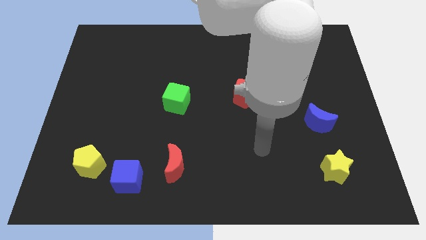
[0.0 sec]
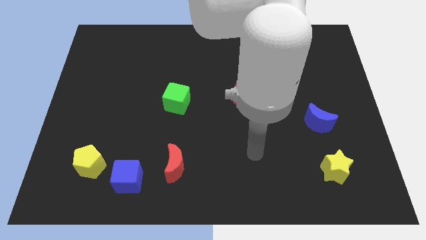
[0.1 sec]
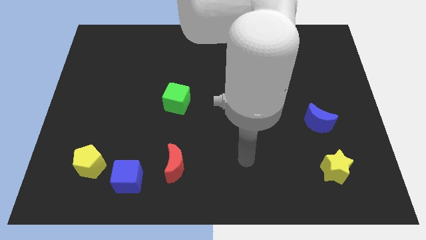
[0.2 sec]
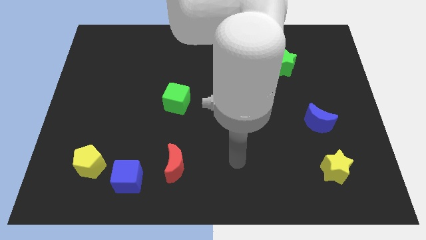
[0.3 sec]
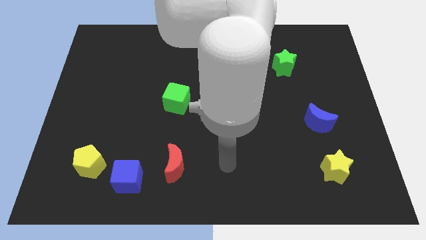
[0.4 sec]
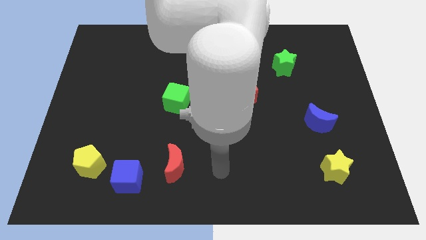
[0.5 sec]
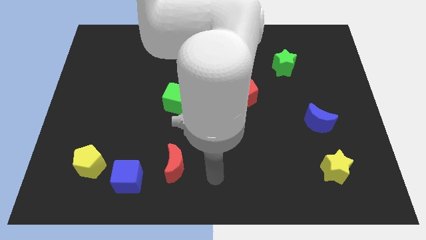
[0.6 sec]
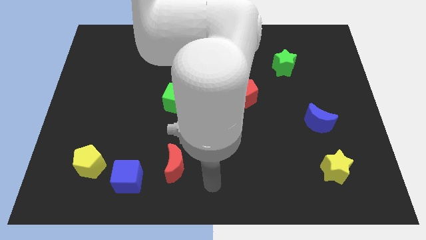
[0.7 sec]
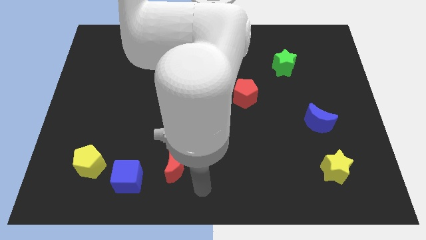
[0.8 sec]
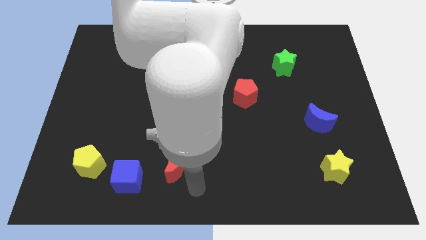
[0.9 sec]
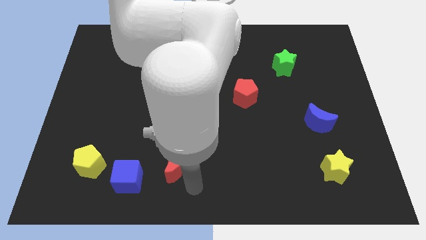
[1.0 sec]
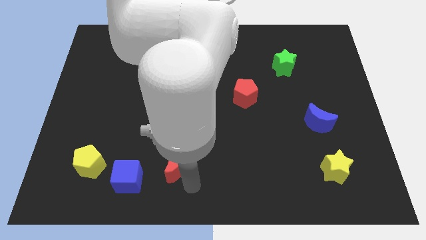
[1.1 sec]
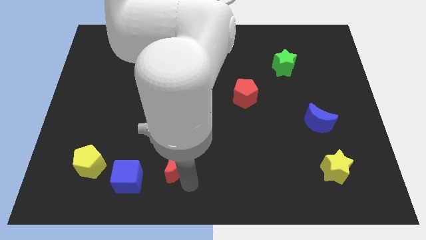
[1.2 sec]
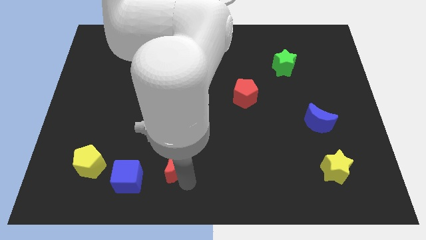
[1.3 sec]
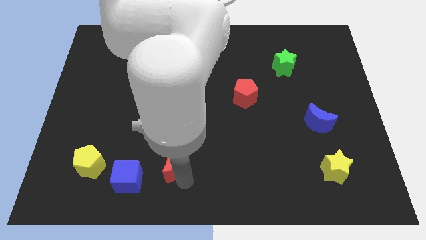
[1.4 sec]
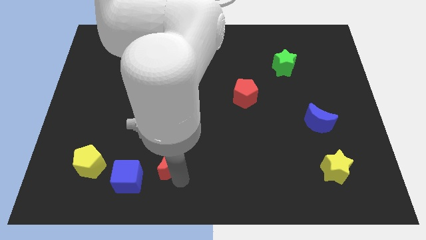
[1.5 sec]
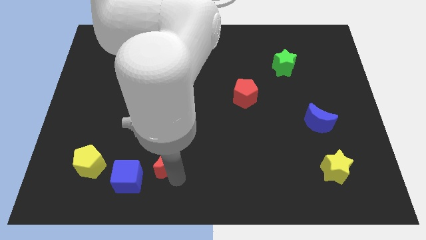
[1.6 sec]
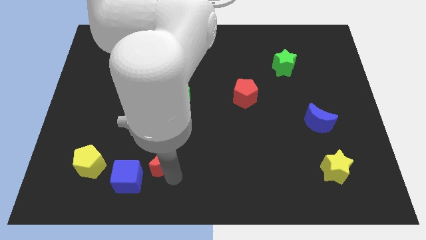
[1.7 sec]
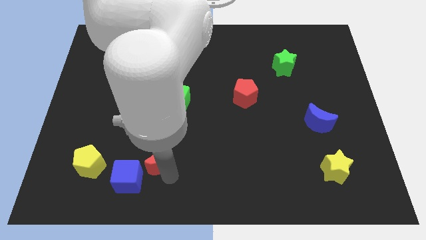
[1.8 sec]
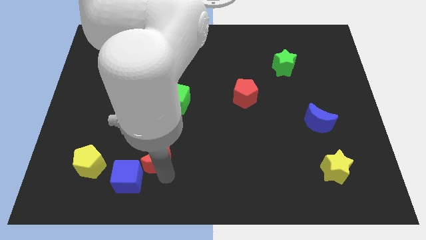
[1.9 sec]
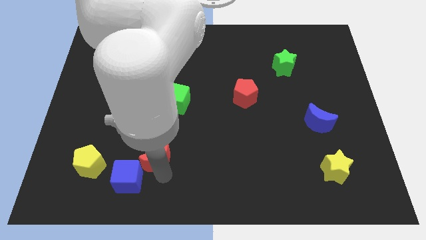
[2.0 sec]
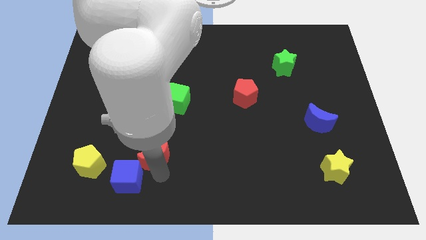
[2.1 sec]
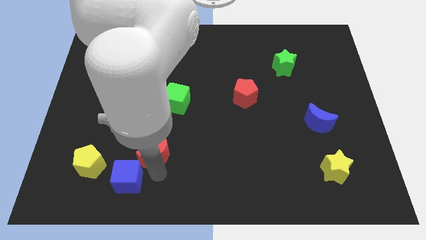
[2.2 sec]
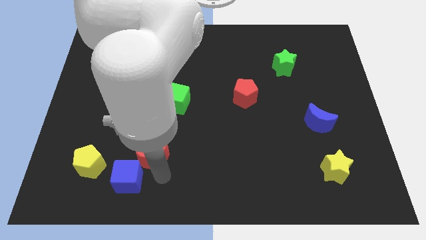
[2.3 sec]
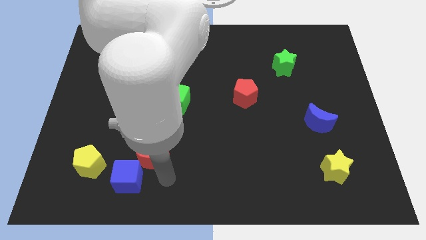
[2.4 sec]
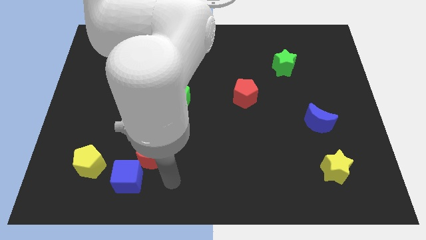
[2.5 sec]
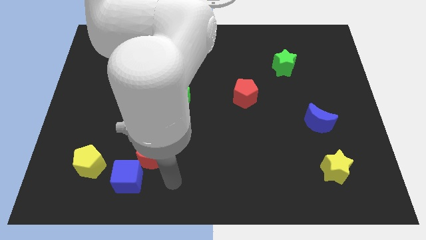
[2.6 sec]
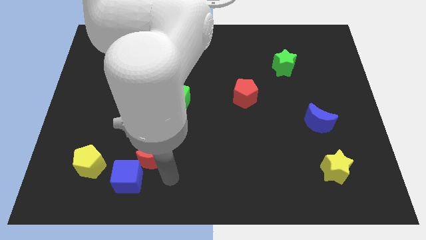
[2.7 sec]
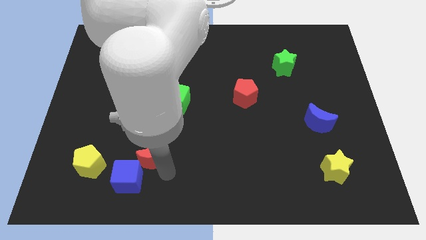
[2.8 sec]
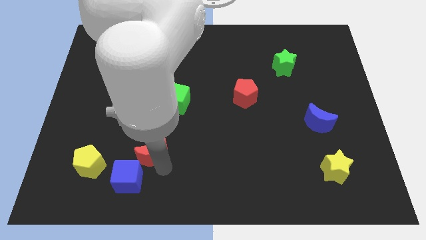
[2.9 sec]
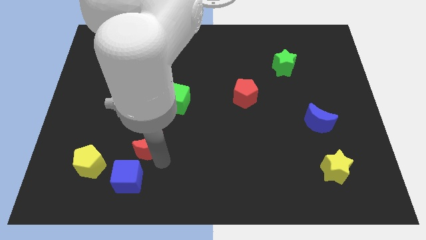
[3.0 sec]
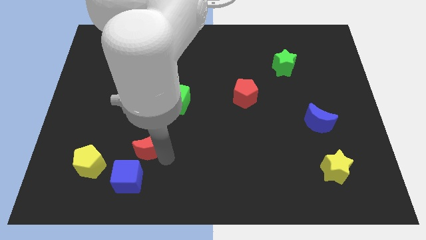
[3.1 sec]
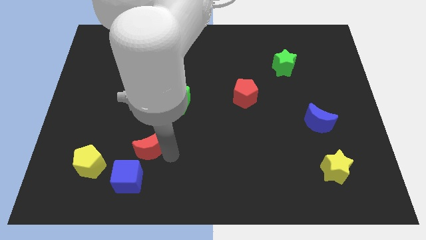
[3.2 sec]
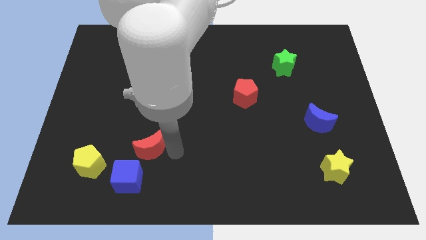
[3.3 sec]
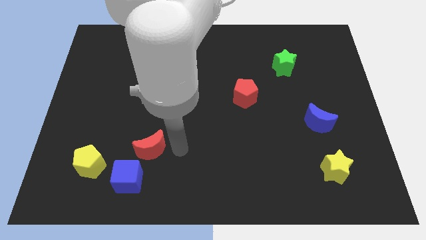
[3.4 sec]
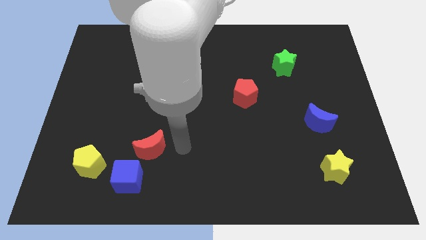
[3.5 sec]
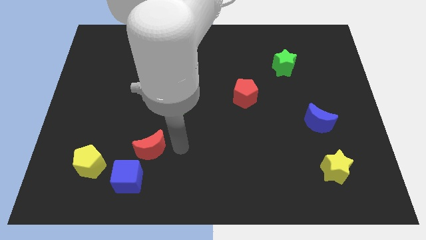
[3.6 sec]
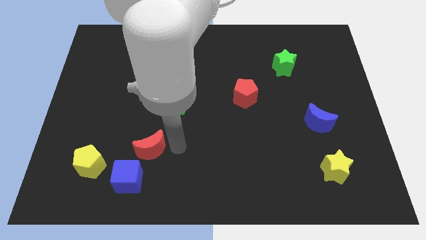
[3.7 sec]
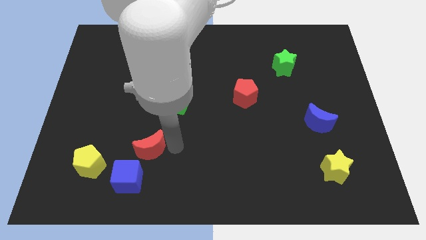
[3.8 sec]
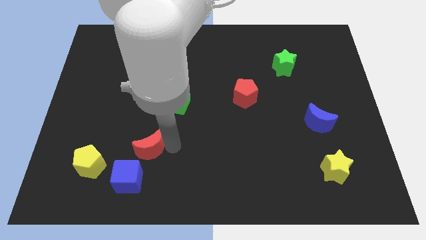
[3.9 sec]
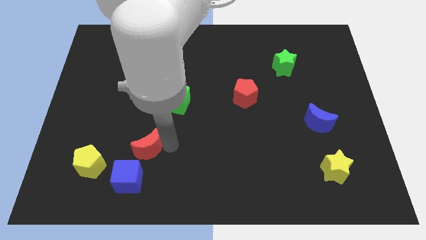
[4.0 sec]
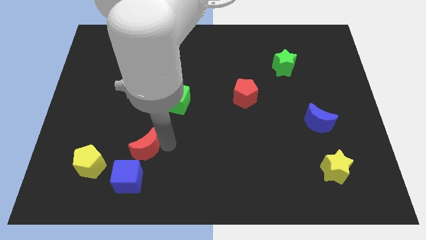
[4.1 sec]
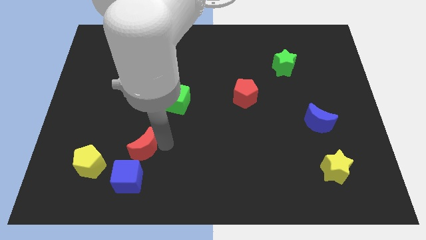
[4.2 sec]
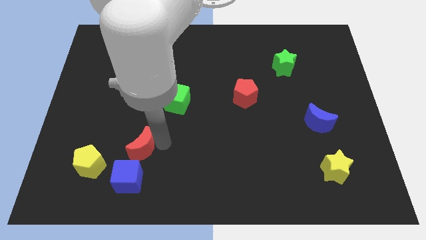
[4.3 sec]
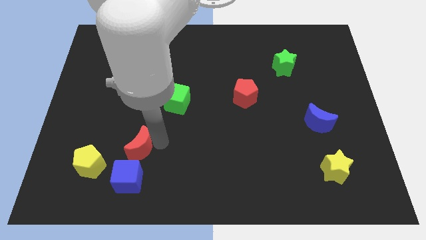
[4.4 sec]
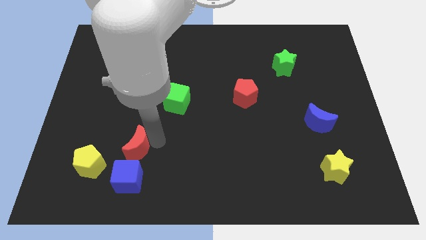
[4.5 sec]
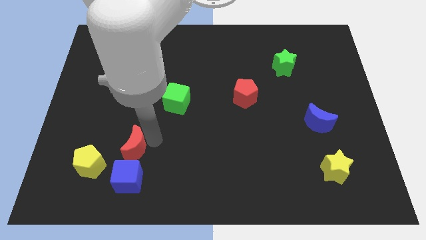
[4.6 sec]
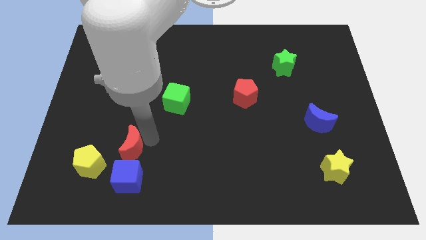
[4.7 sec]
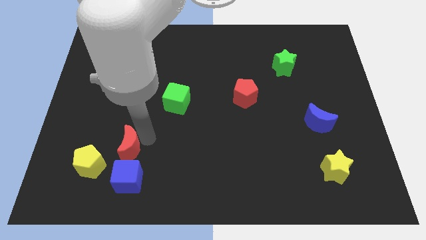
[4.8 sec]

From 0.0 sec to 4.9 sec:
push the red moon to the top left side of the blue cube

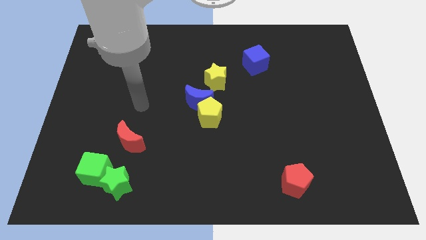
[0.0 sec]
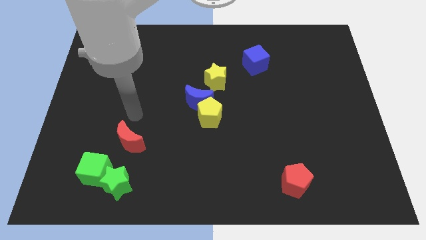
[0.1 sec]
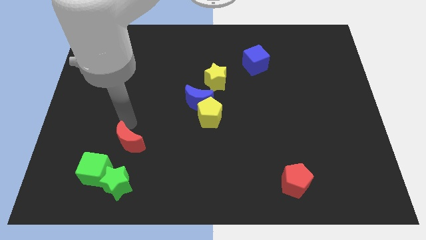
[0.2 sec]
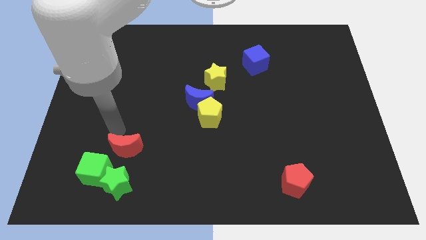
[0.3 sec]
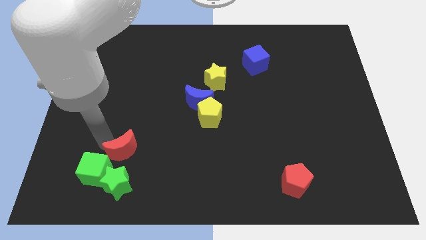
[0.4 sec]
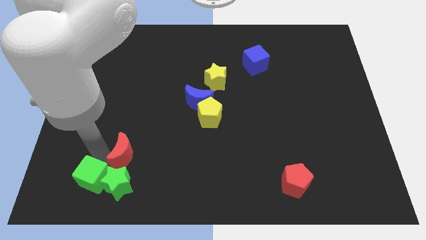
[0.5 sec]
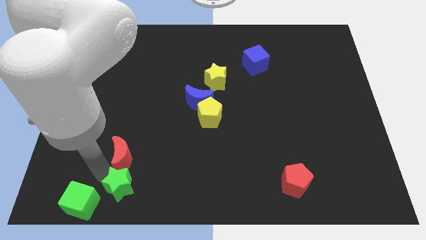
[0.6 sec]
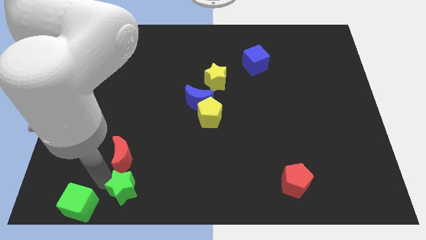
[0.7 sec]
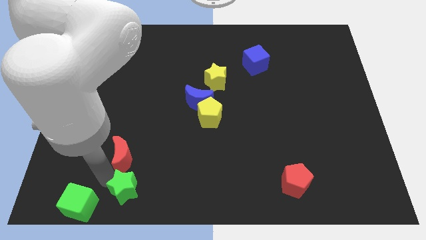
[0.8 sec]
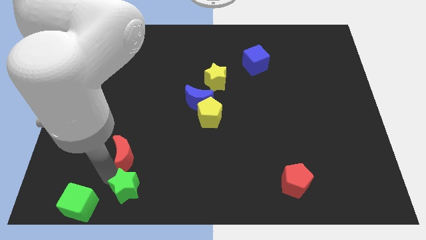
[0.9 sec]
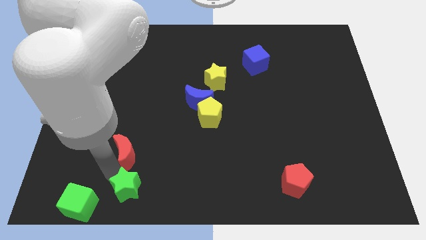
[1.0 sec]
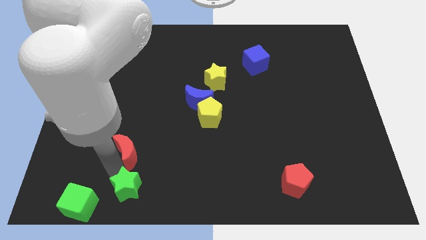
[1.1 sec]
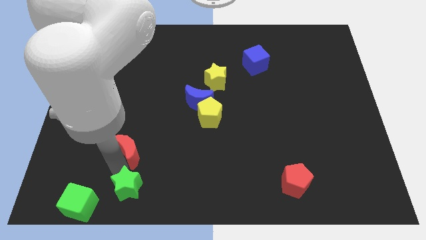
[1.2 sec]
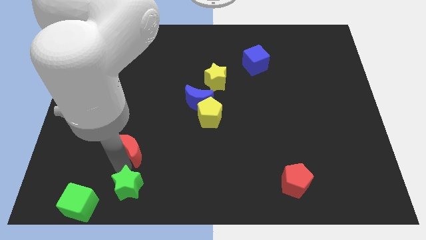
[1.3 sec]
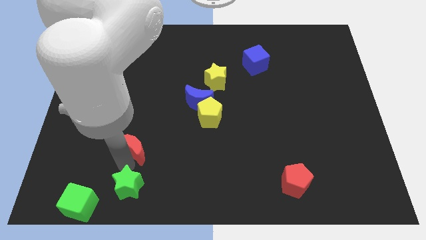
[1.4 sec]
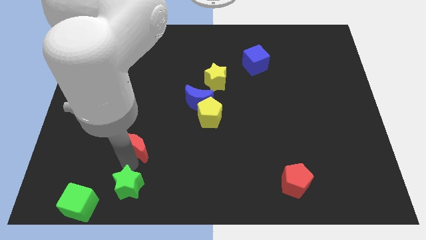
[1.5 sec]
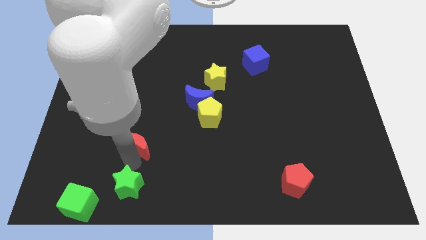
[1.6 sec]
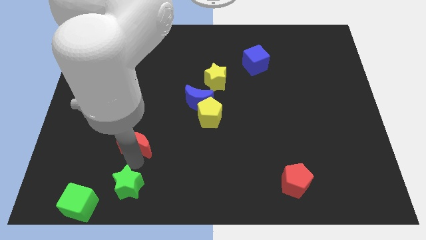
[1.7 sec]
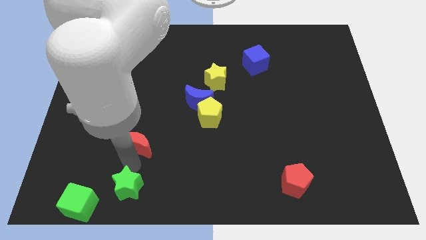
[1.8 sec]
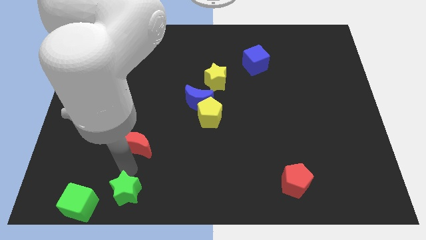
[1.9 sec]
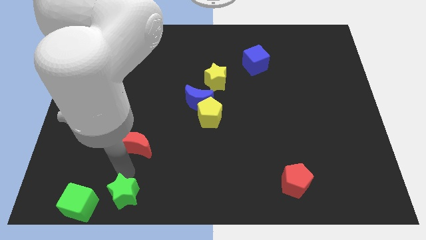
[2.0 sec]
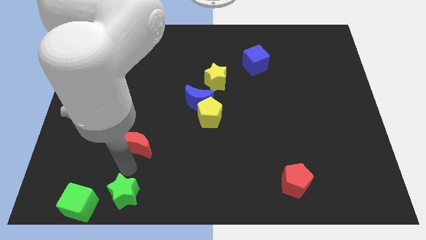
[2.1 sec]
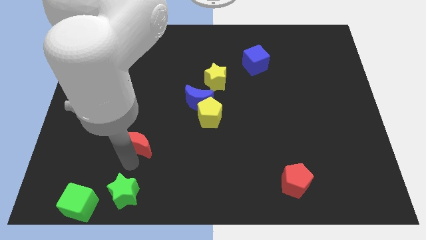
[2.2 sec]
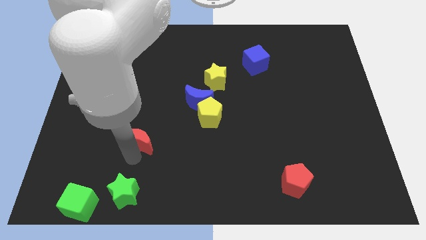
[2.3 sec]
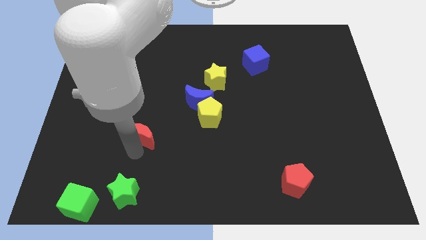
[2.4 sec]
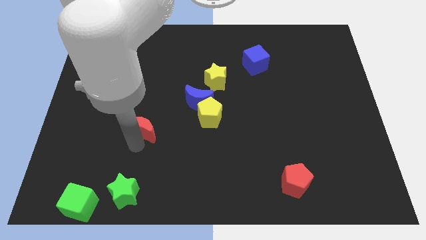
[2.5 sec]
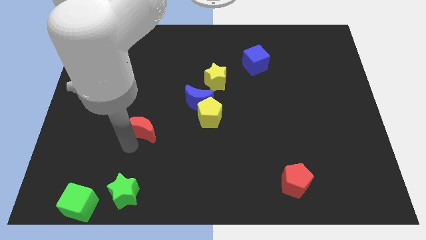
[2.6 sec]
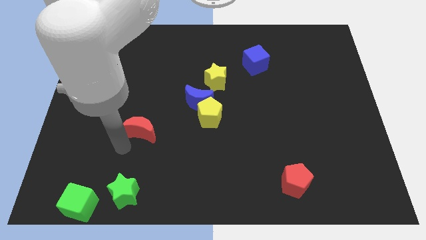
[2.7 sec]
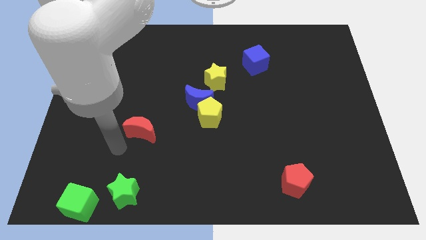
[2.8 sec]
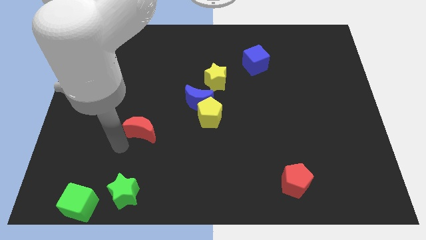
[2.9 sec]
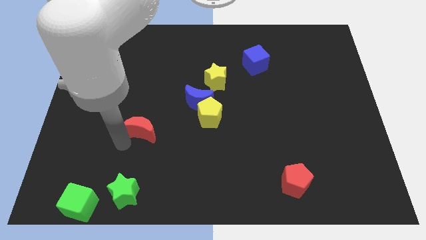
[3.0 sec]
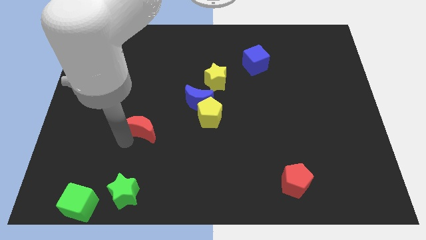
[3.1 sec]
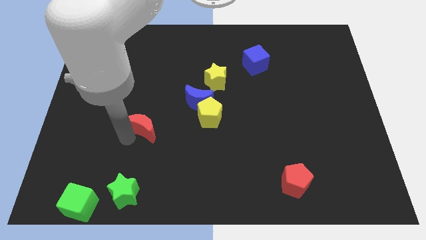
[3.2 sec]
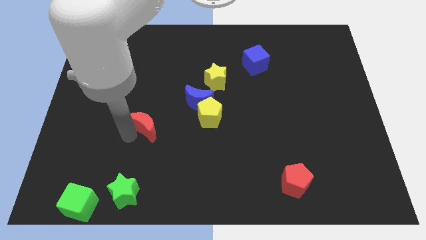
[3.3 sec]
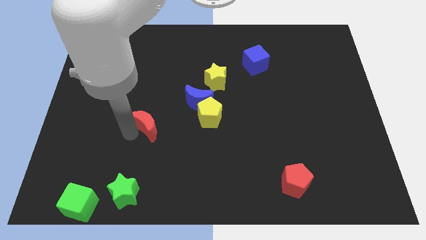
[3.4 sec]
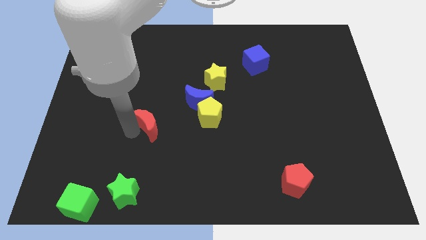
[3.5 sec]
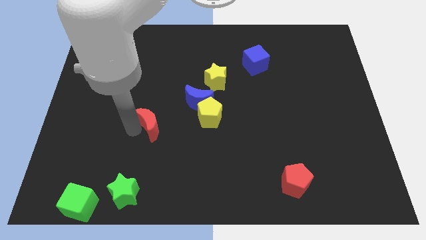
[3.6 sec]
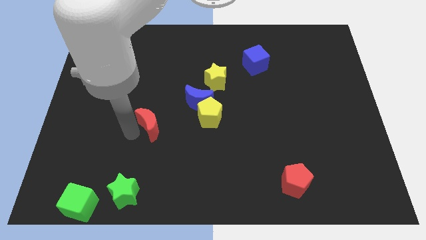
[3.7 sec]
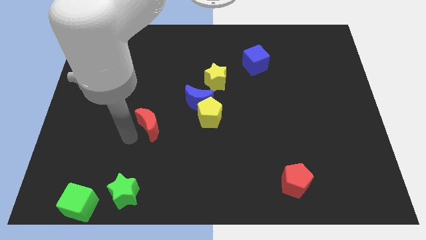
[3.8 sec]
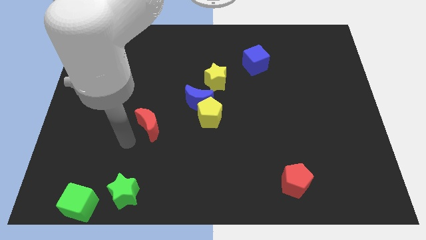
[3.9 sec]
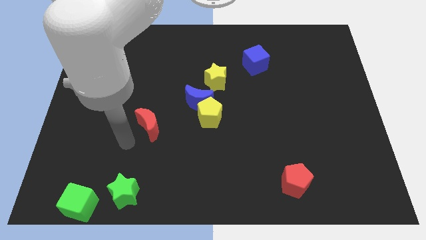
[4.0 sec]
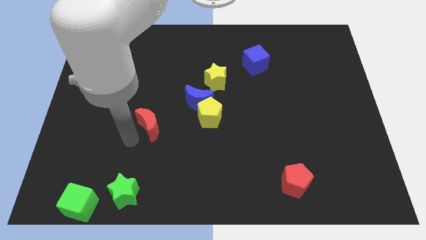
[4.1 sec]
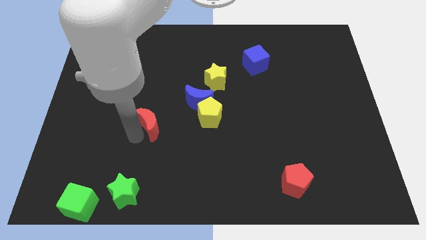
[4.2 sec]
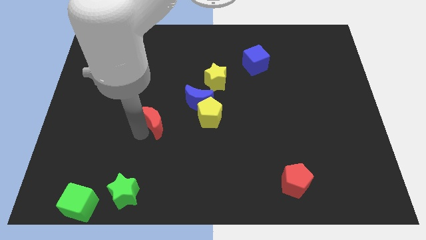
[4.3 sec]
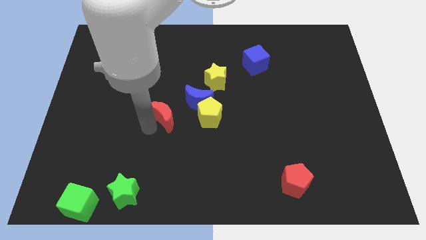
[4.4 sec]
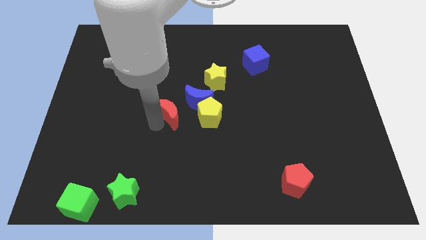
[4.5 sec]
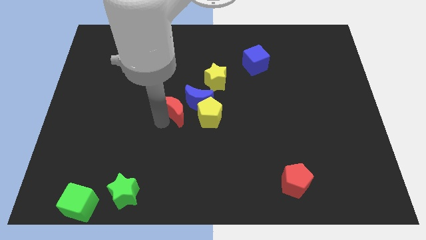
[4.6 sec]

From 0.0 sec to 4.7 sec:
move the red moon to the top left of the yellow pentagon
